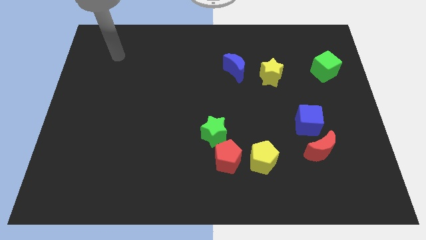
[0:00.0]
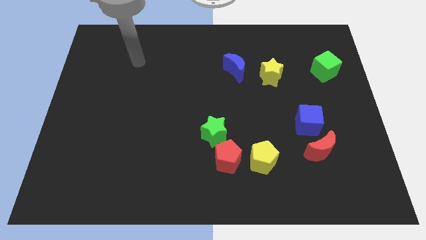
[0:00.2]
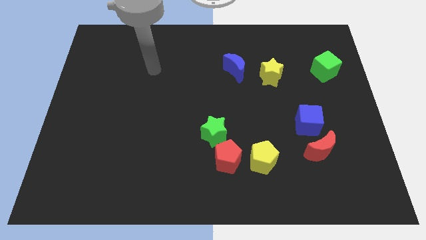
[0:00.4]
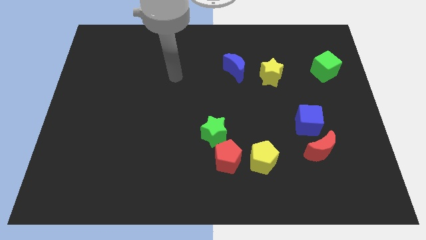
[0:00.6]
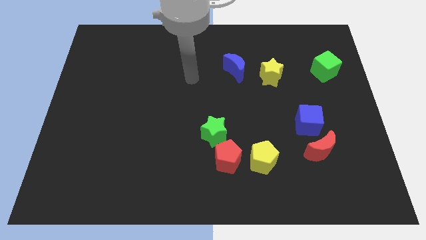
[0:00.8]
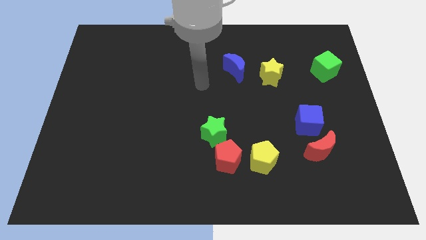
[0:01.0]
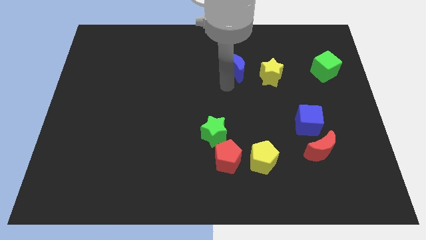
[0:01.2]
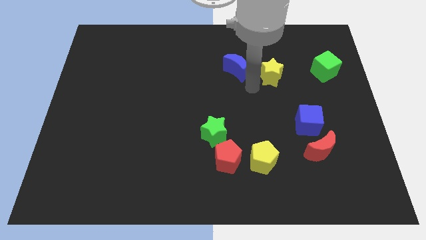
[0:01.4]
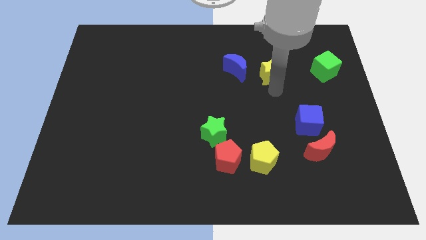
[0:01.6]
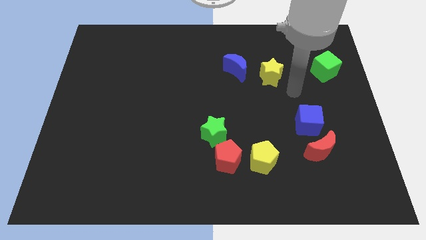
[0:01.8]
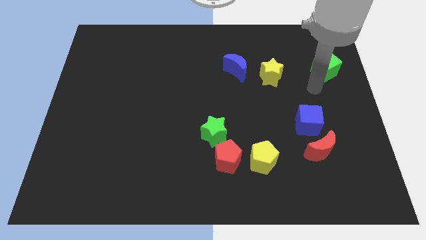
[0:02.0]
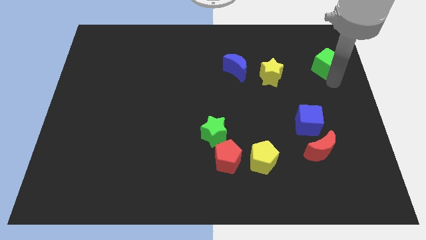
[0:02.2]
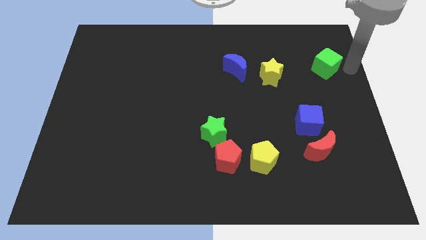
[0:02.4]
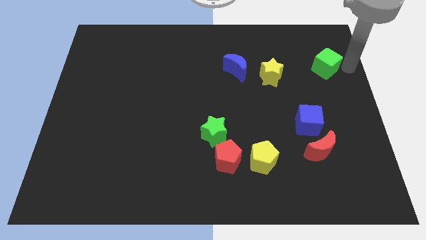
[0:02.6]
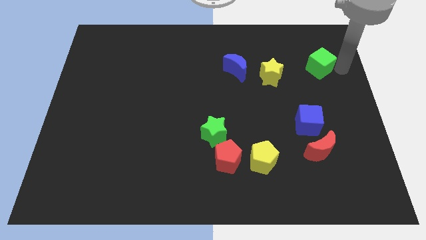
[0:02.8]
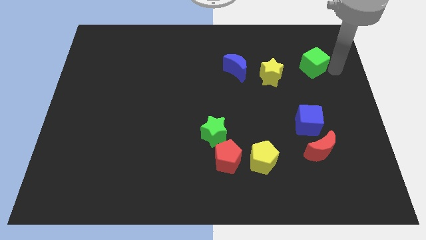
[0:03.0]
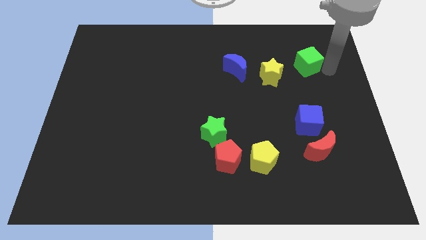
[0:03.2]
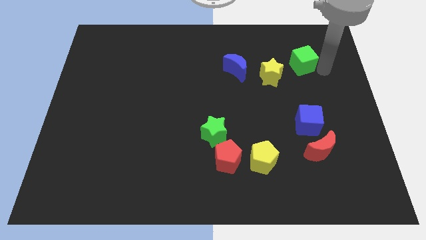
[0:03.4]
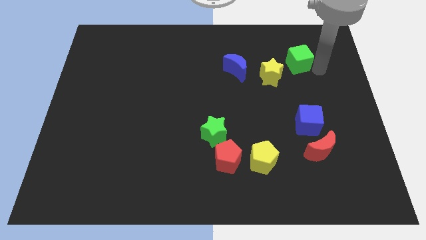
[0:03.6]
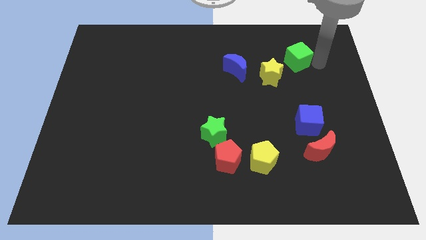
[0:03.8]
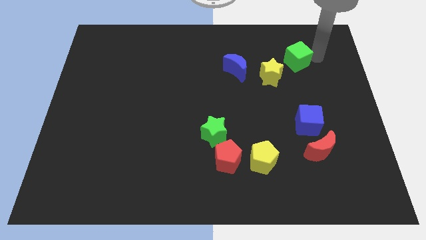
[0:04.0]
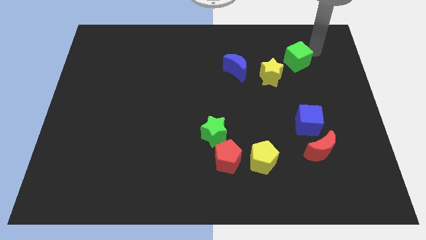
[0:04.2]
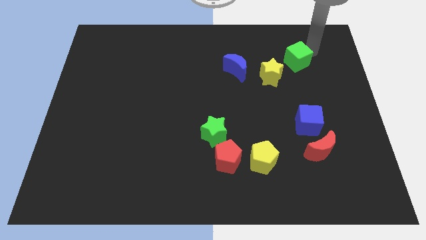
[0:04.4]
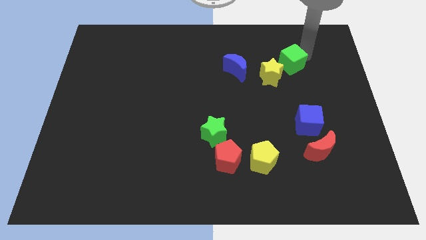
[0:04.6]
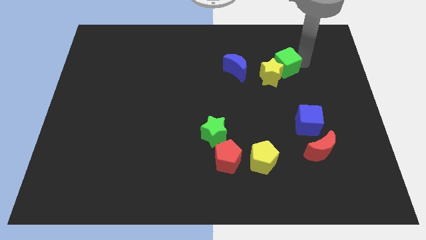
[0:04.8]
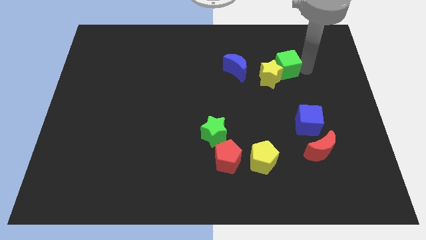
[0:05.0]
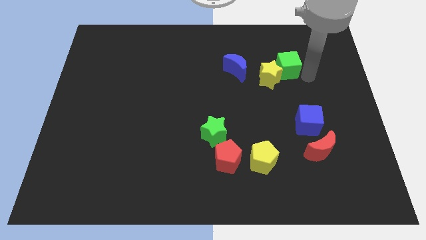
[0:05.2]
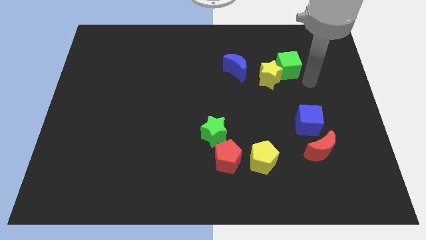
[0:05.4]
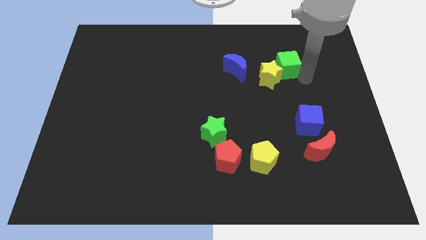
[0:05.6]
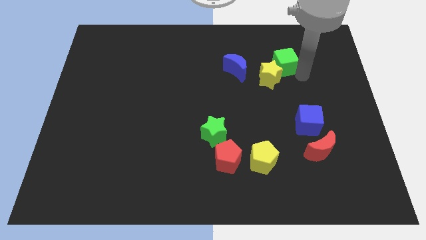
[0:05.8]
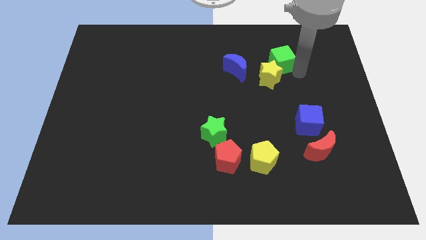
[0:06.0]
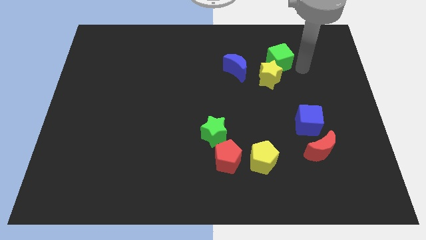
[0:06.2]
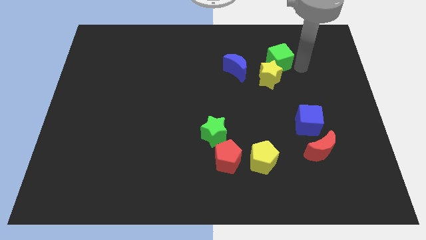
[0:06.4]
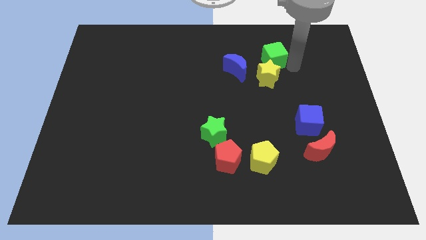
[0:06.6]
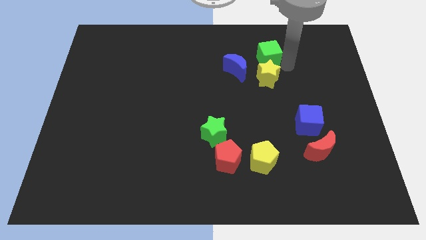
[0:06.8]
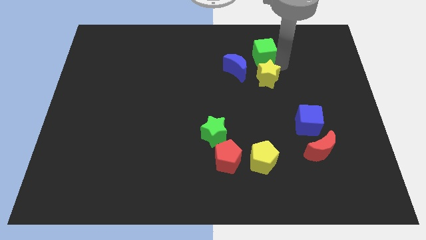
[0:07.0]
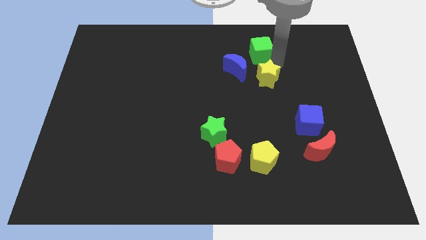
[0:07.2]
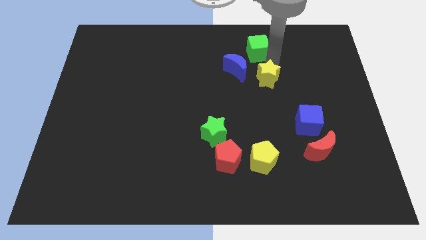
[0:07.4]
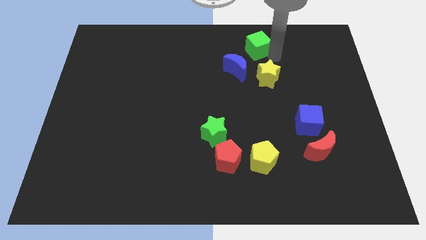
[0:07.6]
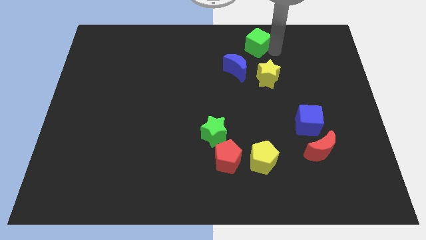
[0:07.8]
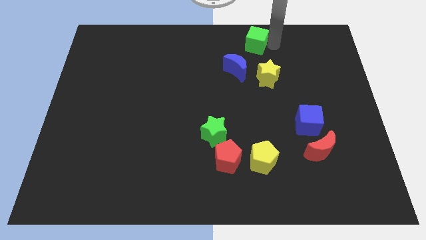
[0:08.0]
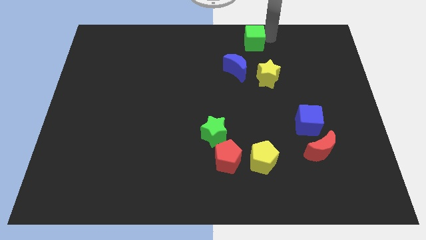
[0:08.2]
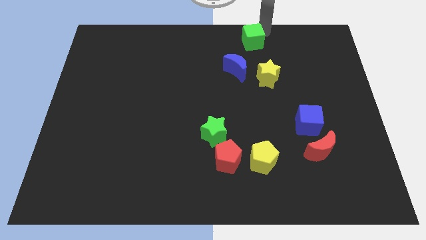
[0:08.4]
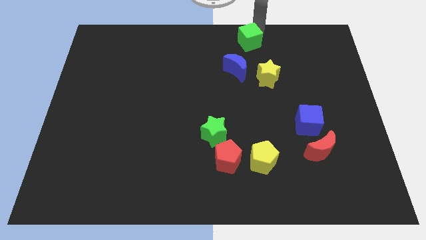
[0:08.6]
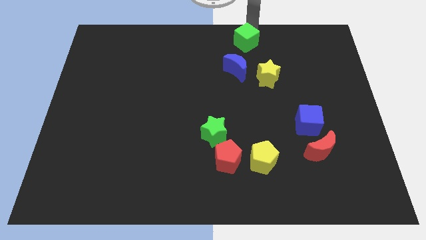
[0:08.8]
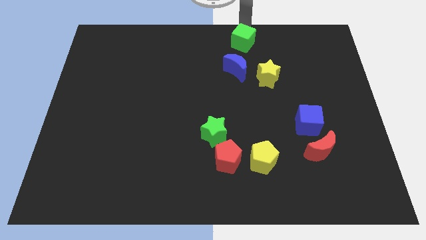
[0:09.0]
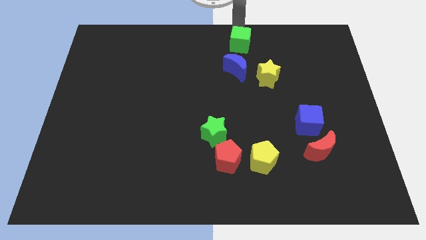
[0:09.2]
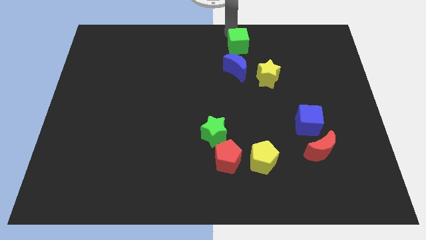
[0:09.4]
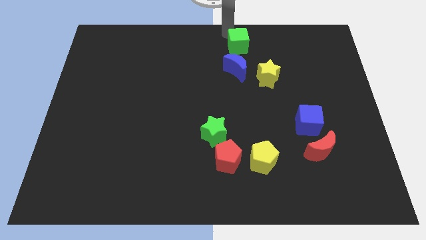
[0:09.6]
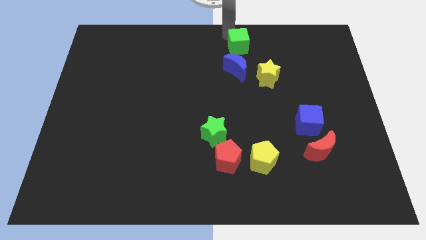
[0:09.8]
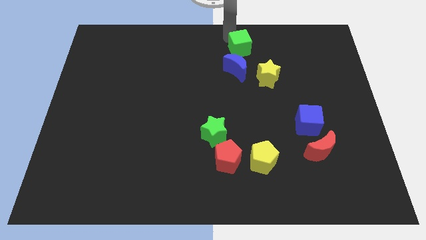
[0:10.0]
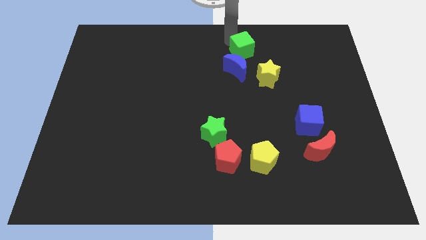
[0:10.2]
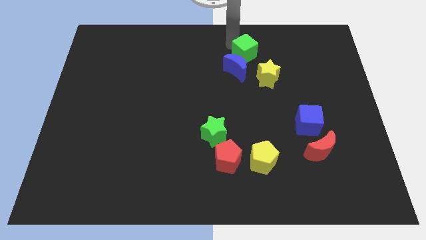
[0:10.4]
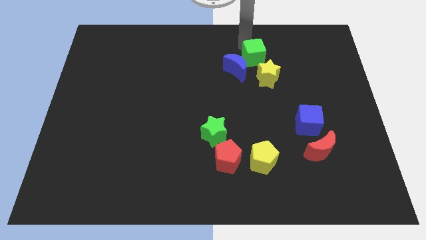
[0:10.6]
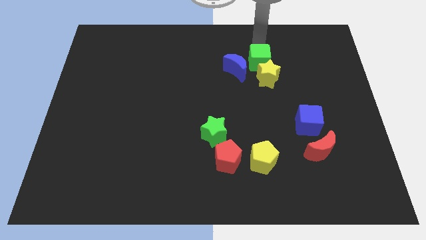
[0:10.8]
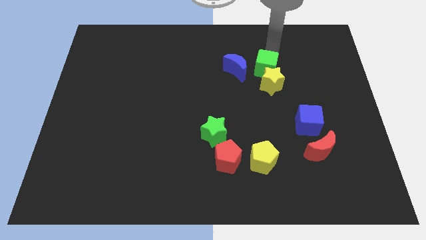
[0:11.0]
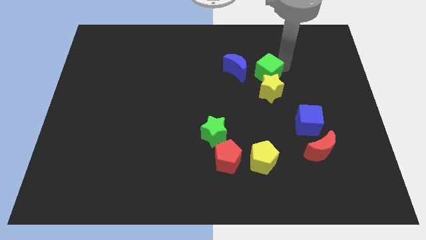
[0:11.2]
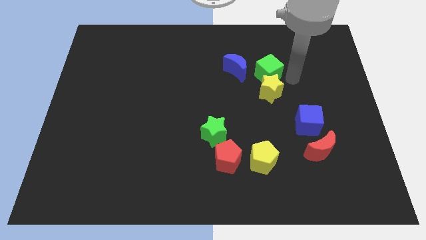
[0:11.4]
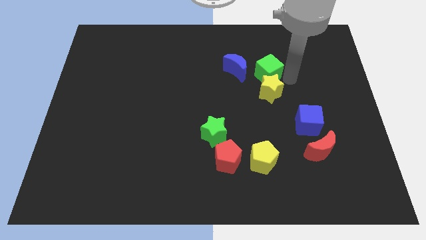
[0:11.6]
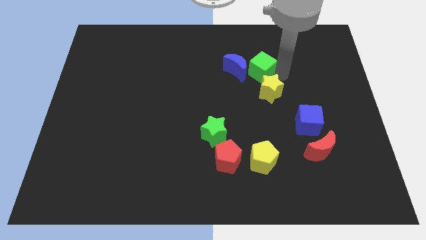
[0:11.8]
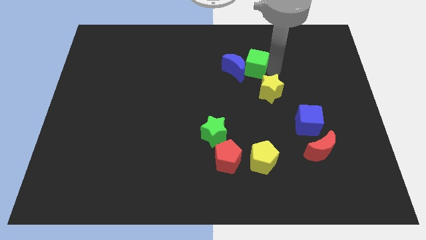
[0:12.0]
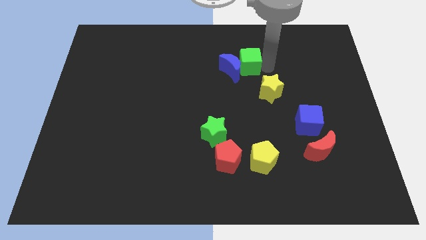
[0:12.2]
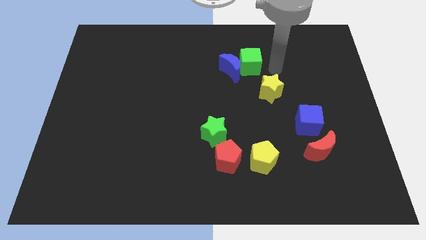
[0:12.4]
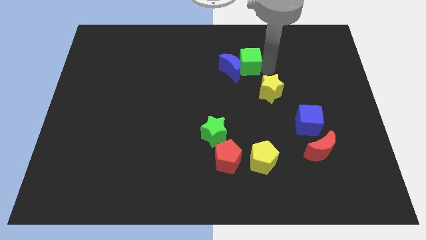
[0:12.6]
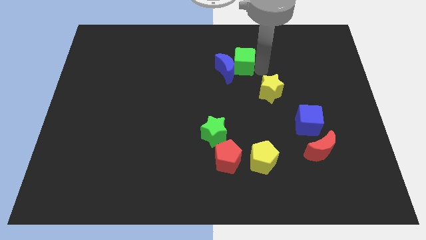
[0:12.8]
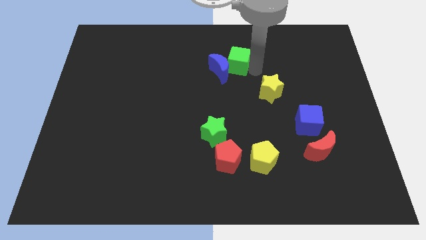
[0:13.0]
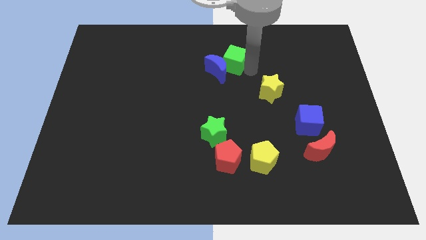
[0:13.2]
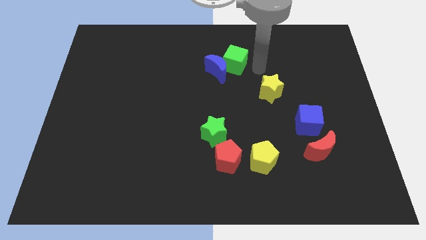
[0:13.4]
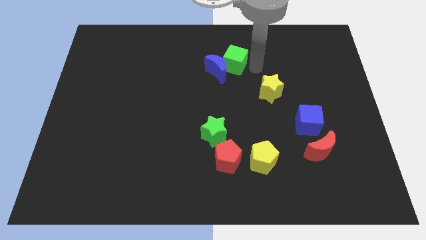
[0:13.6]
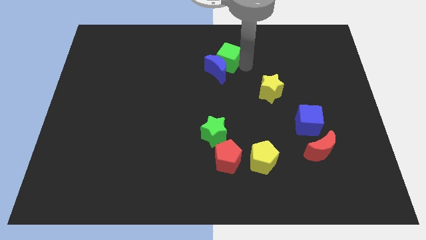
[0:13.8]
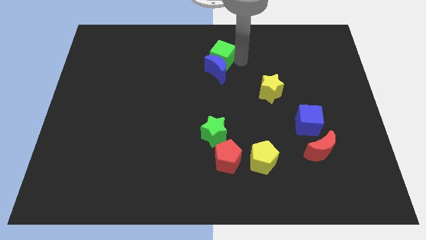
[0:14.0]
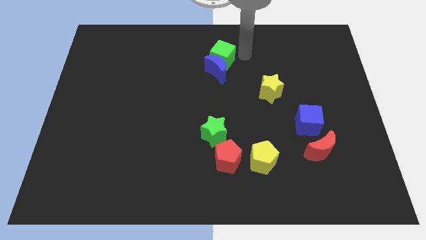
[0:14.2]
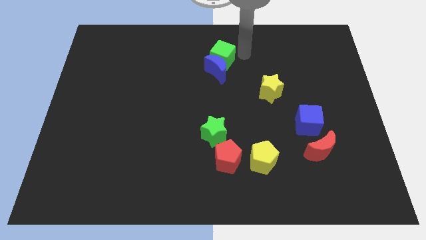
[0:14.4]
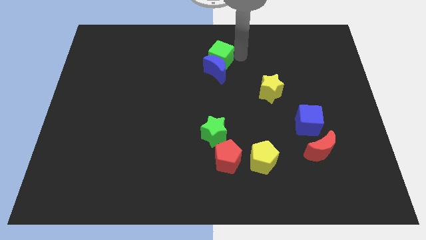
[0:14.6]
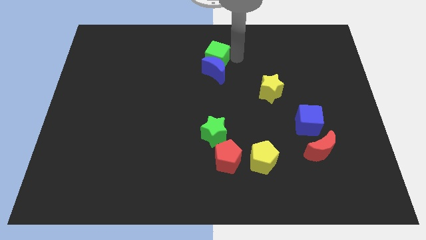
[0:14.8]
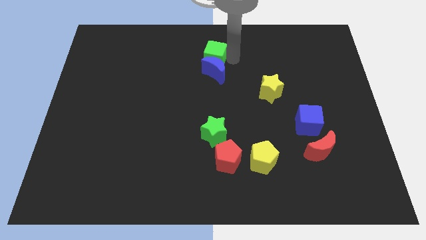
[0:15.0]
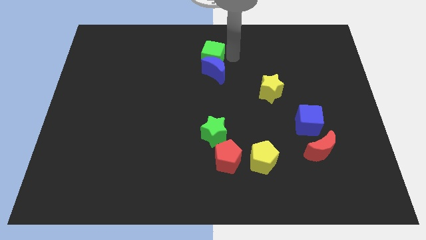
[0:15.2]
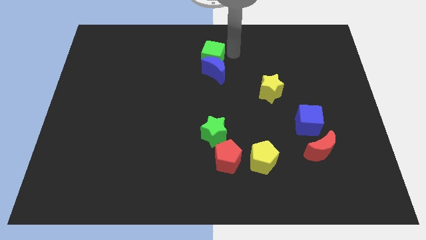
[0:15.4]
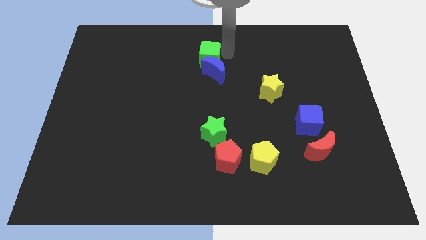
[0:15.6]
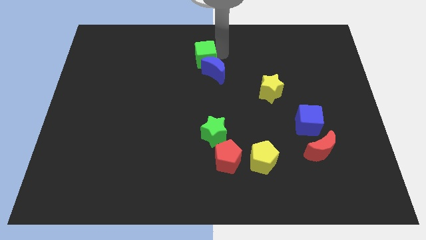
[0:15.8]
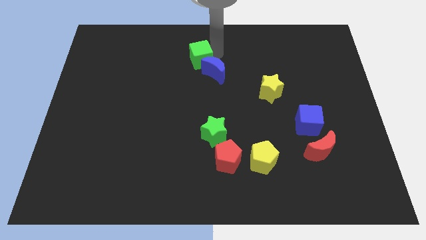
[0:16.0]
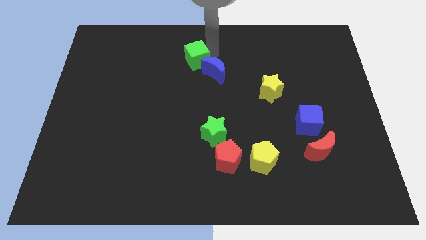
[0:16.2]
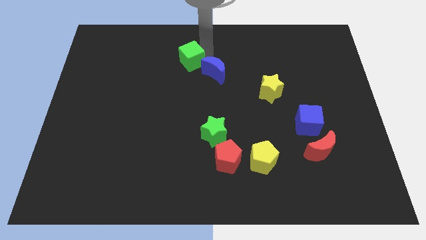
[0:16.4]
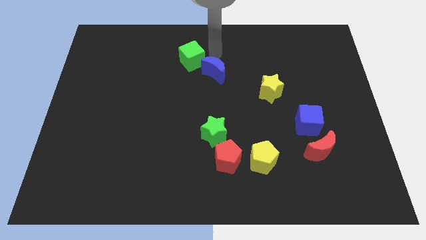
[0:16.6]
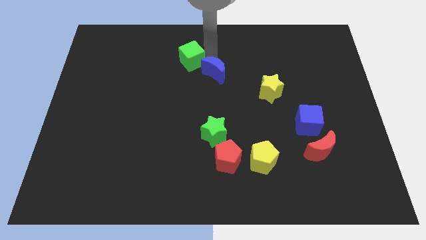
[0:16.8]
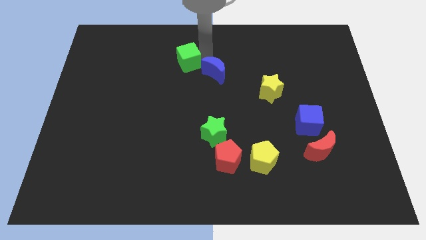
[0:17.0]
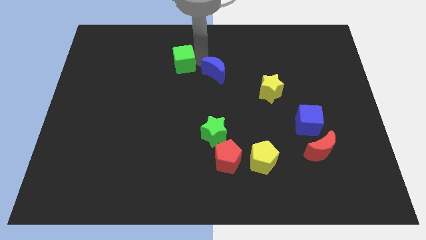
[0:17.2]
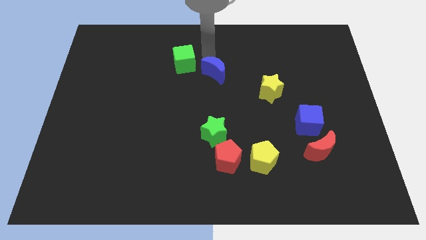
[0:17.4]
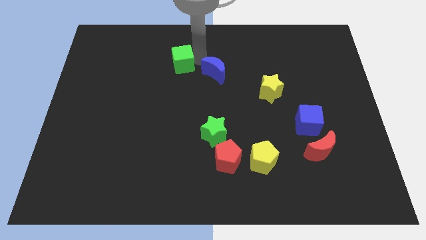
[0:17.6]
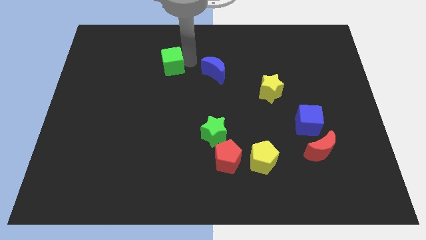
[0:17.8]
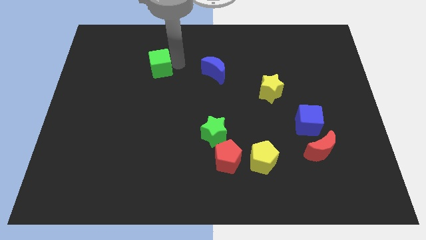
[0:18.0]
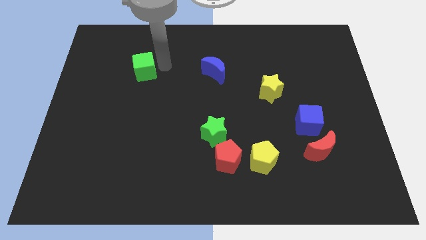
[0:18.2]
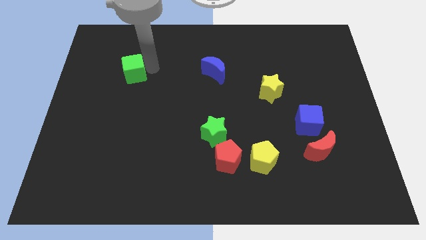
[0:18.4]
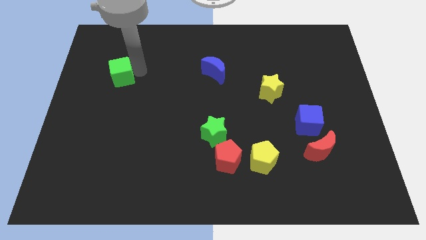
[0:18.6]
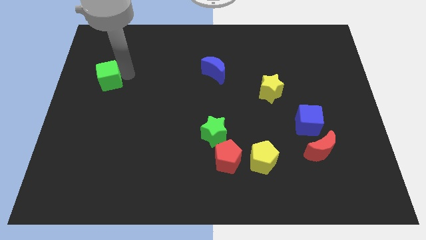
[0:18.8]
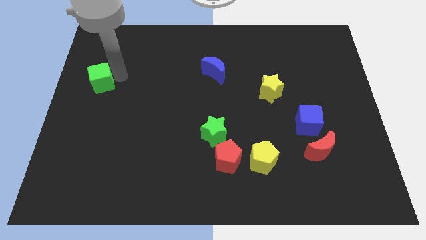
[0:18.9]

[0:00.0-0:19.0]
push the green cube to the center left
